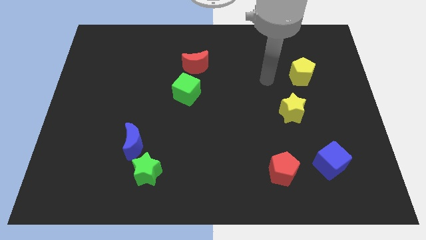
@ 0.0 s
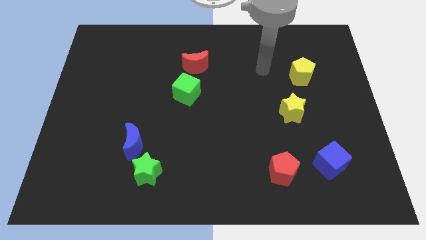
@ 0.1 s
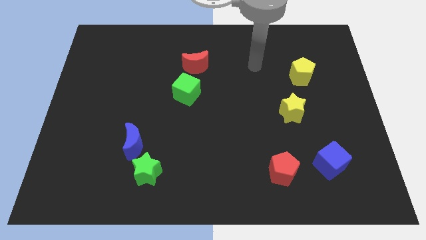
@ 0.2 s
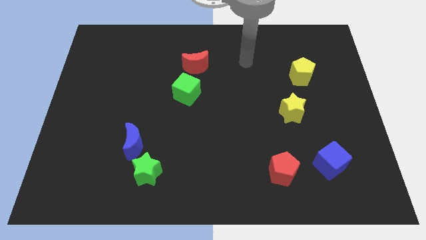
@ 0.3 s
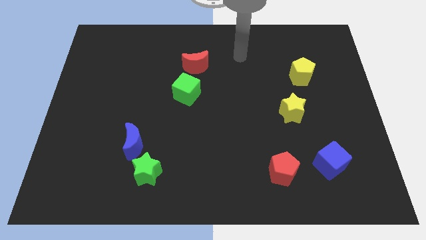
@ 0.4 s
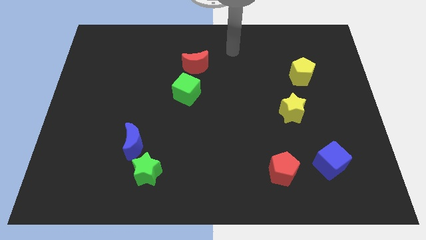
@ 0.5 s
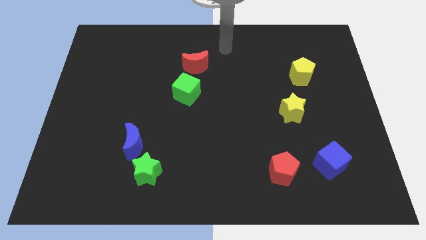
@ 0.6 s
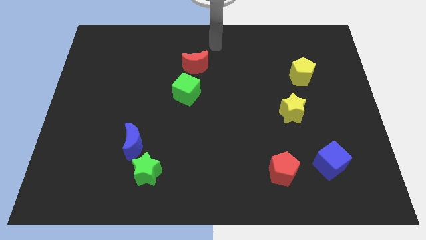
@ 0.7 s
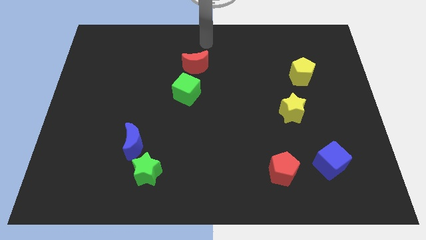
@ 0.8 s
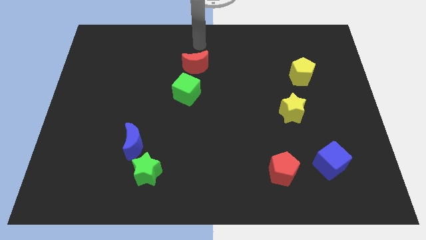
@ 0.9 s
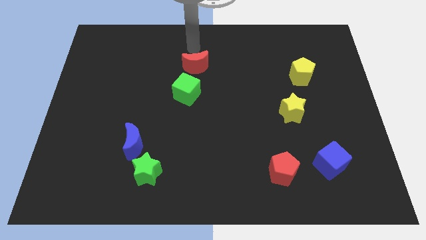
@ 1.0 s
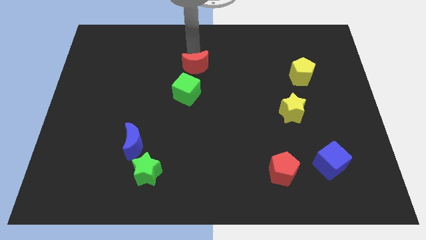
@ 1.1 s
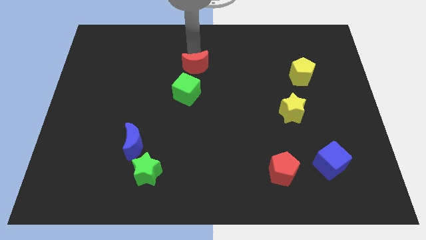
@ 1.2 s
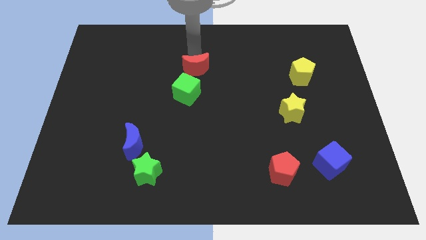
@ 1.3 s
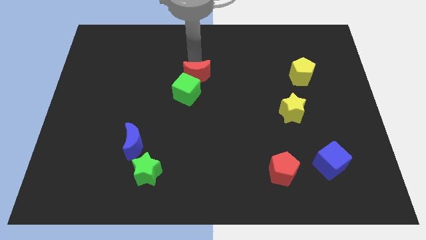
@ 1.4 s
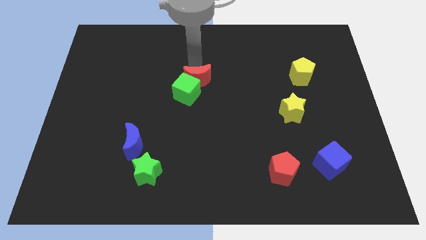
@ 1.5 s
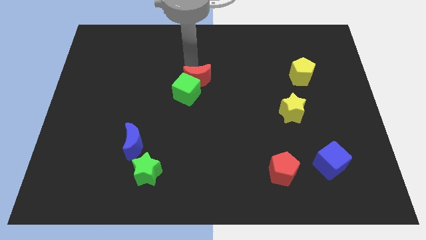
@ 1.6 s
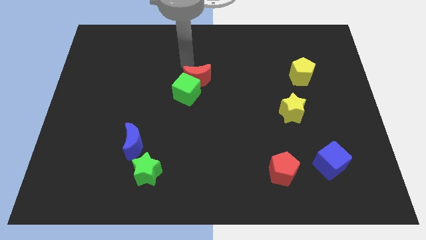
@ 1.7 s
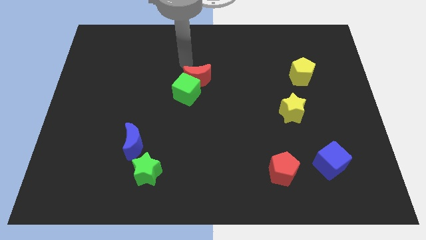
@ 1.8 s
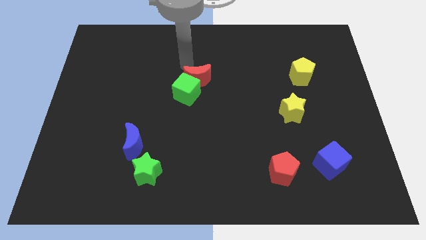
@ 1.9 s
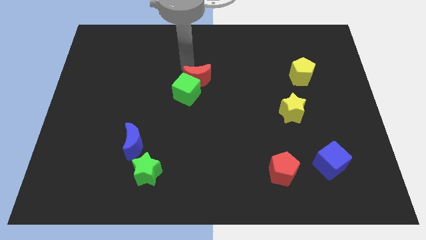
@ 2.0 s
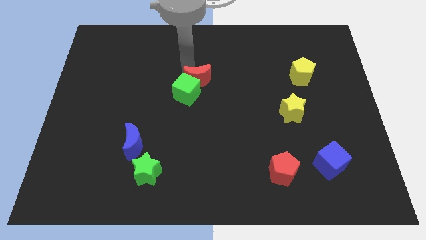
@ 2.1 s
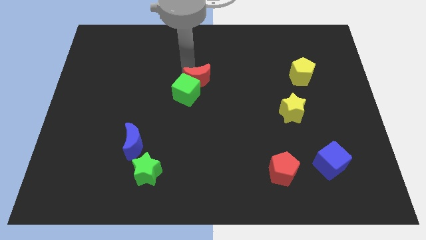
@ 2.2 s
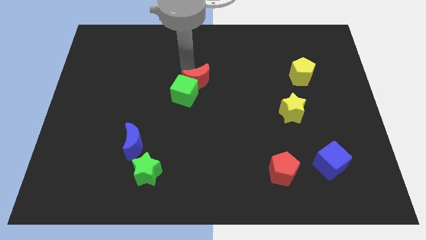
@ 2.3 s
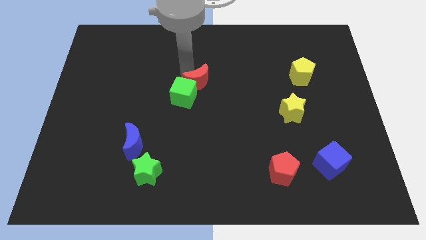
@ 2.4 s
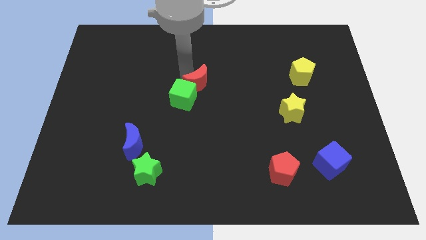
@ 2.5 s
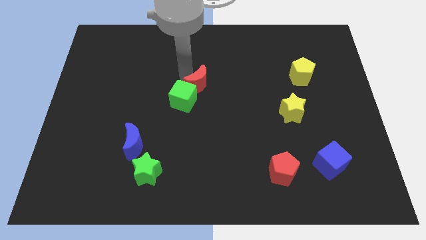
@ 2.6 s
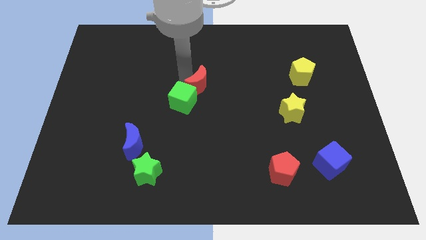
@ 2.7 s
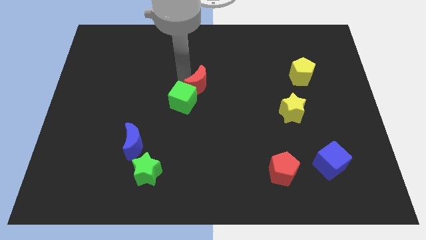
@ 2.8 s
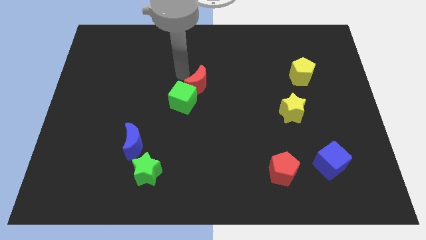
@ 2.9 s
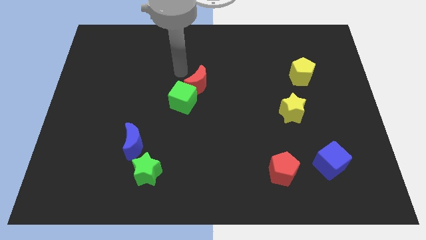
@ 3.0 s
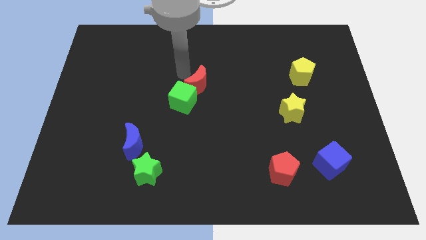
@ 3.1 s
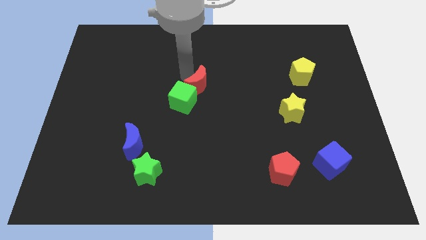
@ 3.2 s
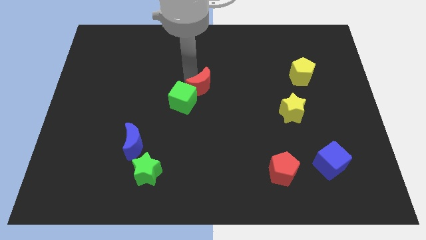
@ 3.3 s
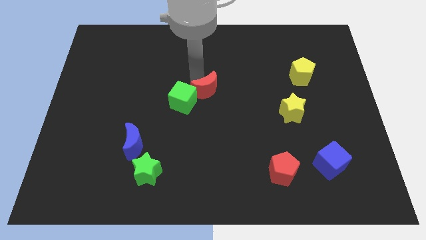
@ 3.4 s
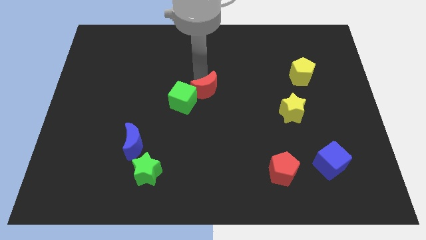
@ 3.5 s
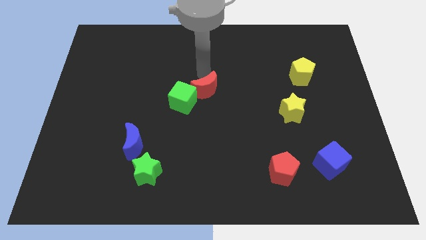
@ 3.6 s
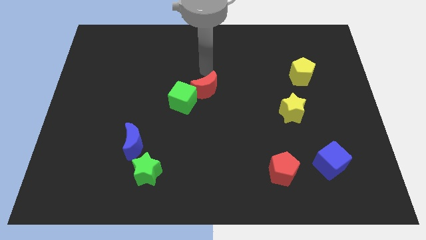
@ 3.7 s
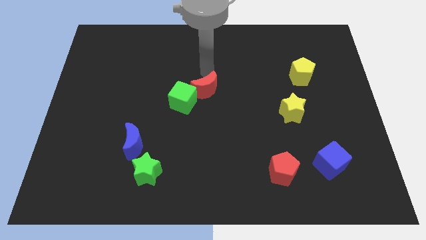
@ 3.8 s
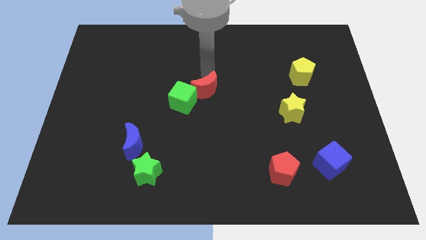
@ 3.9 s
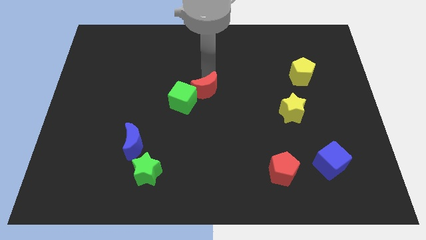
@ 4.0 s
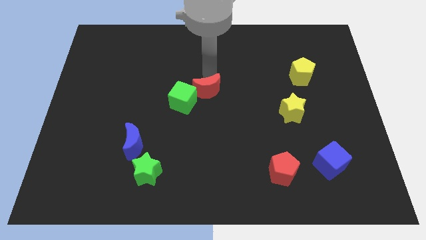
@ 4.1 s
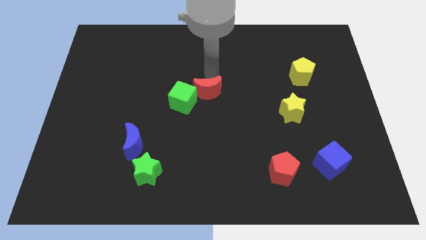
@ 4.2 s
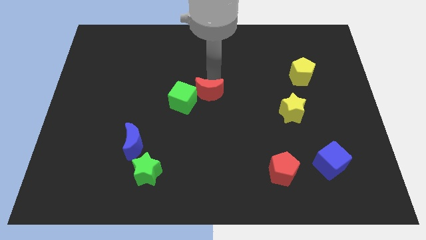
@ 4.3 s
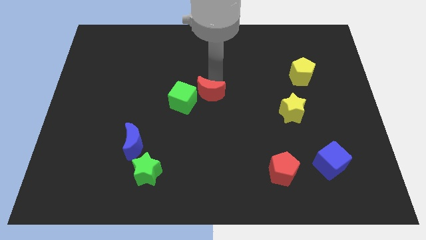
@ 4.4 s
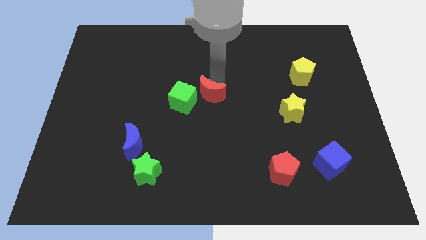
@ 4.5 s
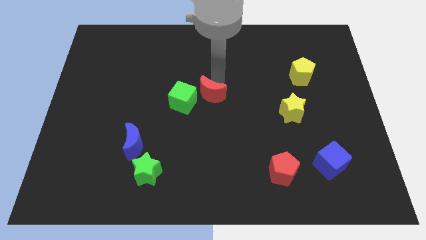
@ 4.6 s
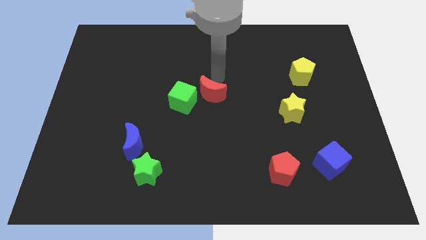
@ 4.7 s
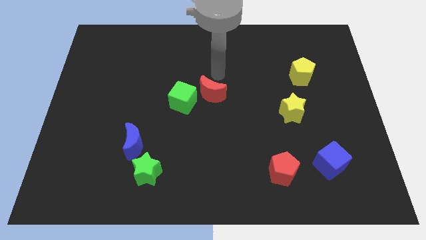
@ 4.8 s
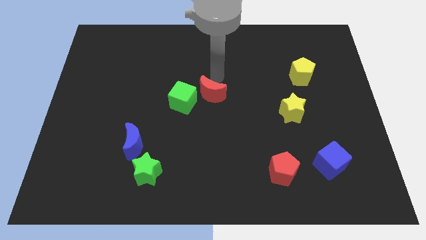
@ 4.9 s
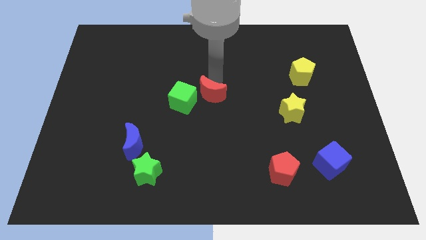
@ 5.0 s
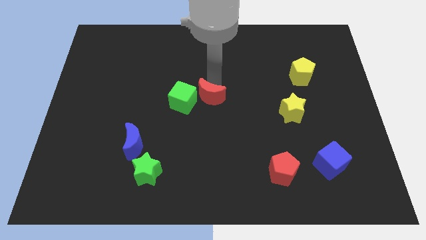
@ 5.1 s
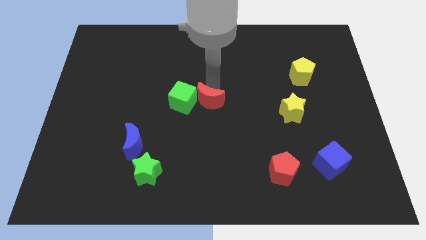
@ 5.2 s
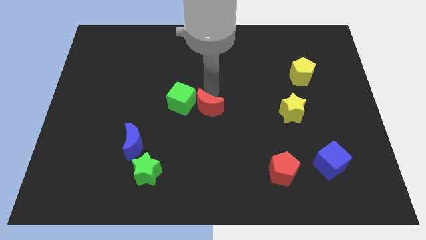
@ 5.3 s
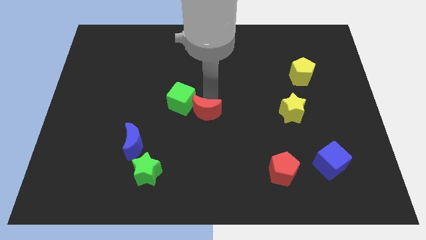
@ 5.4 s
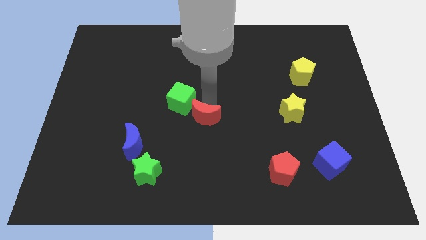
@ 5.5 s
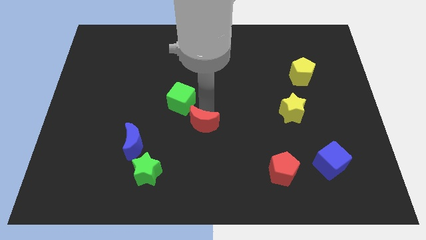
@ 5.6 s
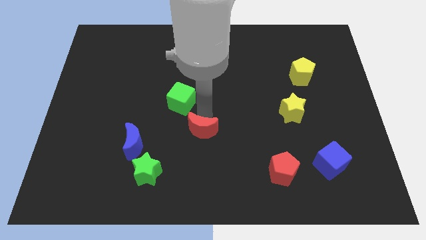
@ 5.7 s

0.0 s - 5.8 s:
push the red moon down

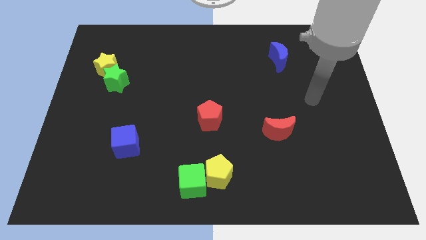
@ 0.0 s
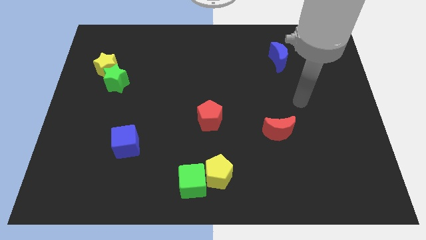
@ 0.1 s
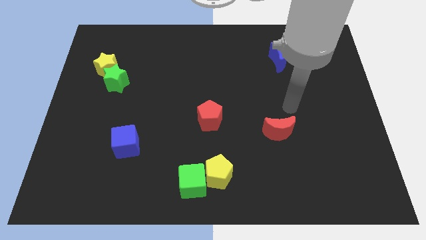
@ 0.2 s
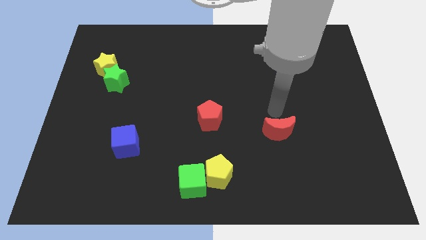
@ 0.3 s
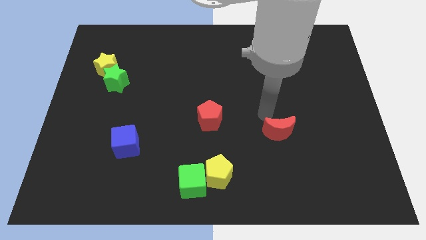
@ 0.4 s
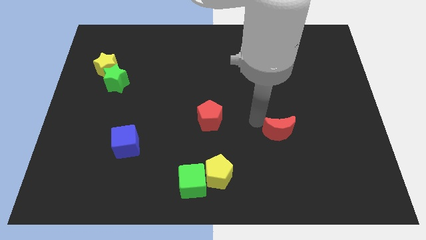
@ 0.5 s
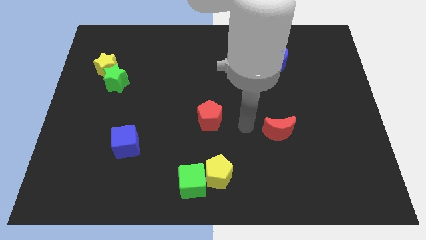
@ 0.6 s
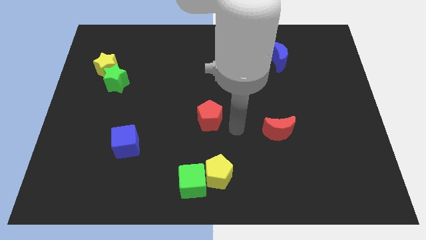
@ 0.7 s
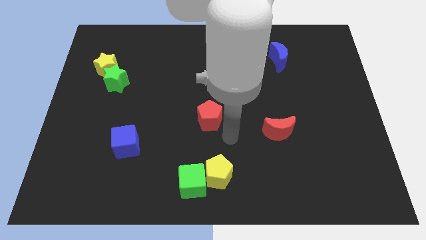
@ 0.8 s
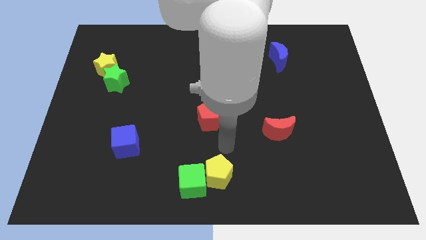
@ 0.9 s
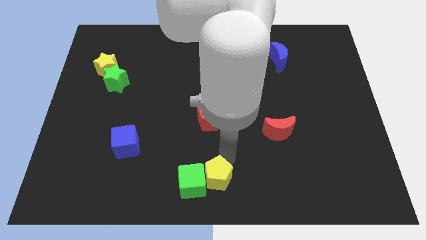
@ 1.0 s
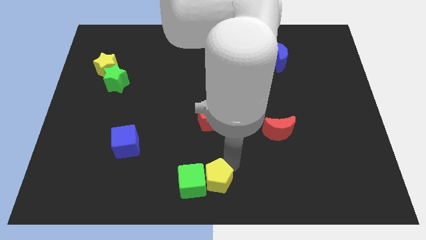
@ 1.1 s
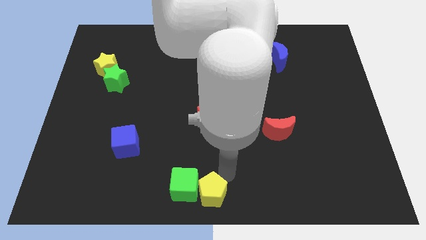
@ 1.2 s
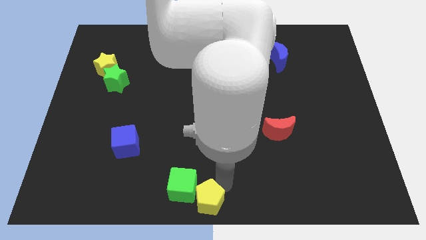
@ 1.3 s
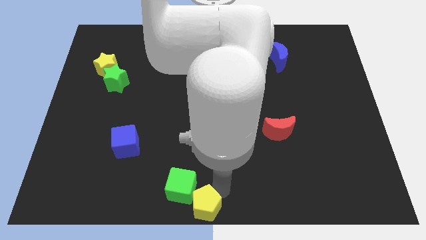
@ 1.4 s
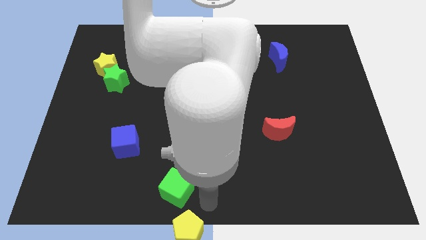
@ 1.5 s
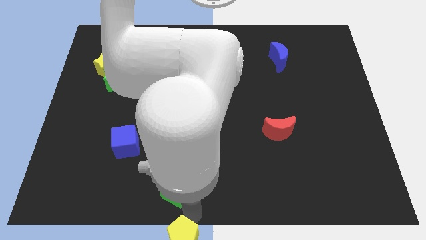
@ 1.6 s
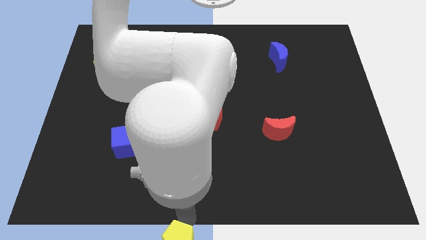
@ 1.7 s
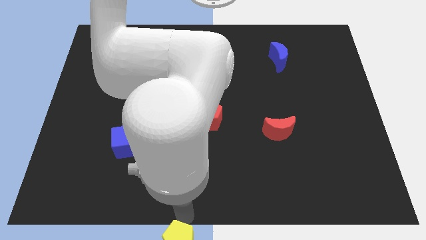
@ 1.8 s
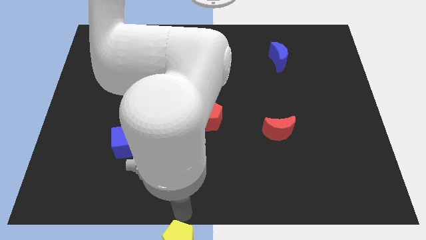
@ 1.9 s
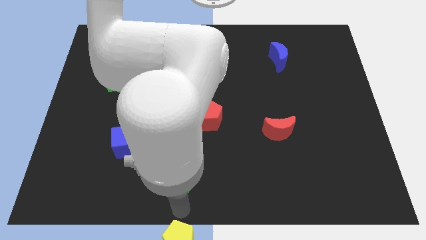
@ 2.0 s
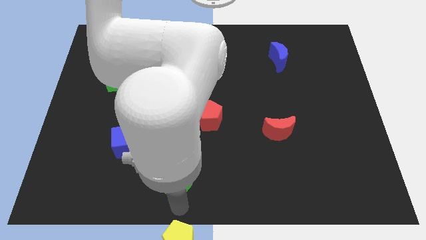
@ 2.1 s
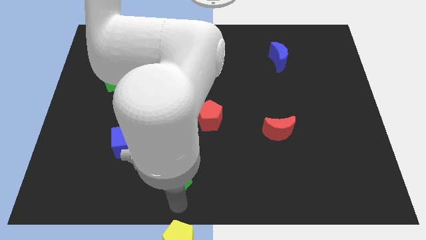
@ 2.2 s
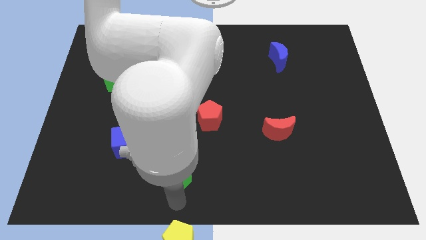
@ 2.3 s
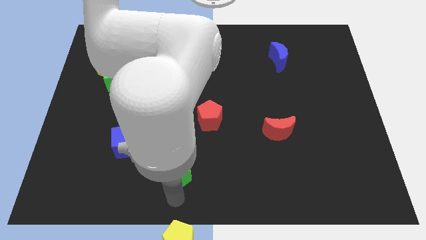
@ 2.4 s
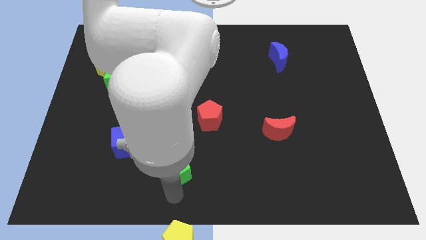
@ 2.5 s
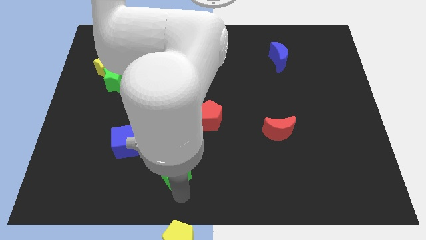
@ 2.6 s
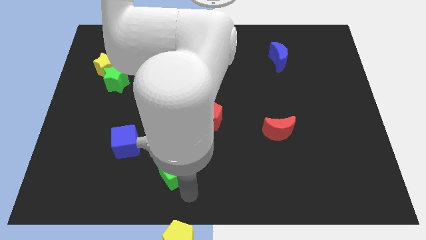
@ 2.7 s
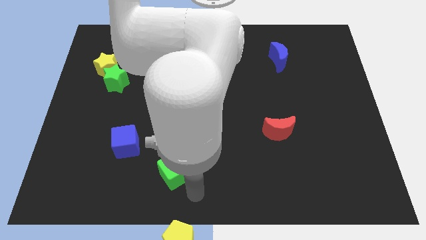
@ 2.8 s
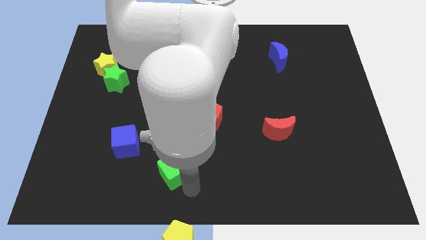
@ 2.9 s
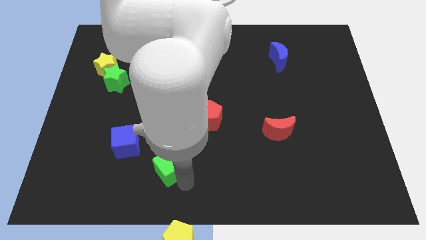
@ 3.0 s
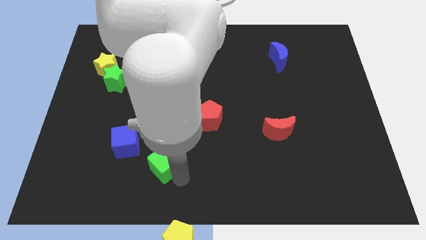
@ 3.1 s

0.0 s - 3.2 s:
push the green cube a bit up and left
